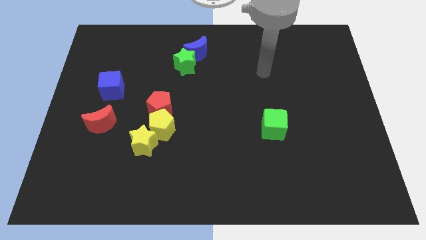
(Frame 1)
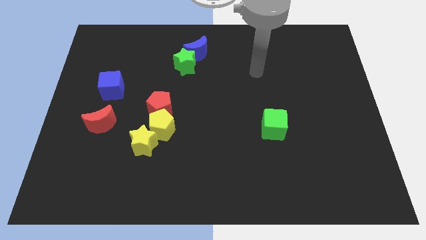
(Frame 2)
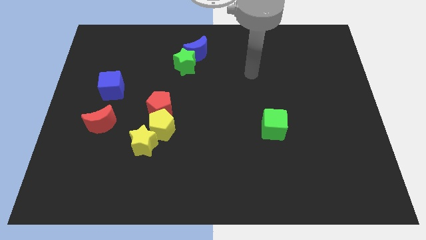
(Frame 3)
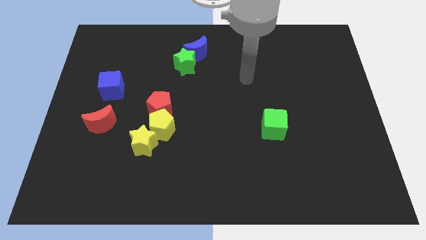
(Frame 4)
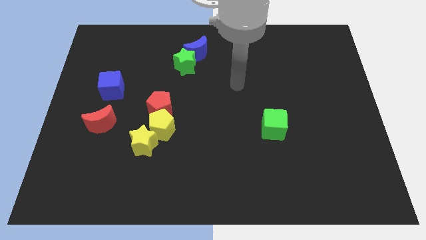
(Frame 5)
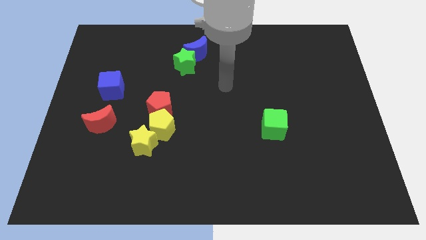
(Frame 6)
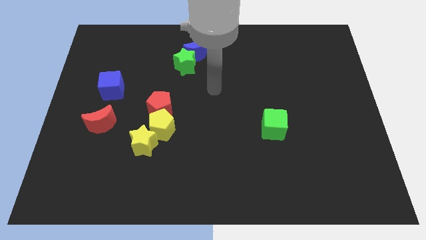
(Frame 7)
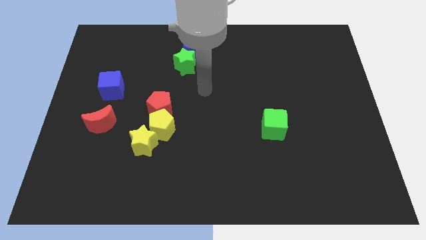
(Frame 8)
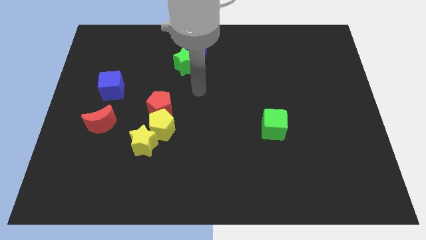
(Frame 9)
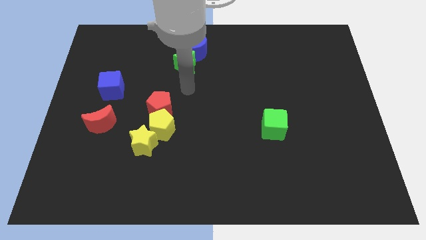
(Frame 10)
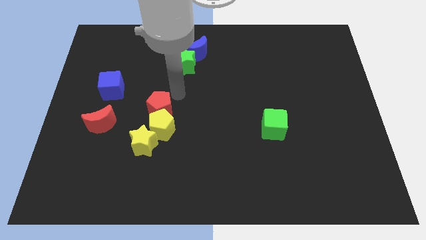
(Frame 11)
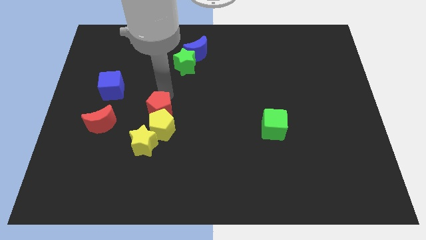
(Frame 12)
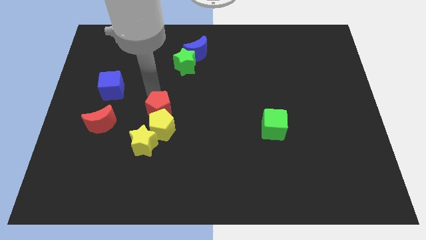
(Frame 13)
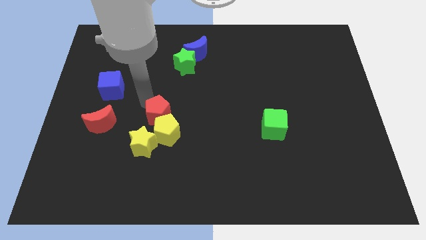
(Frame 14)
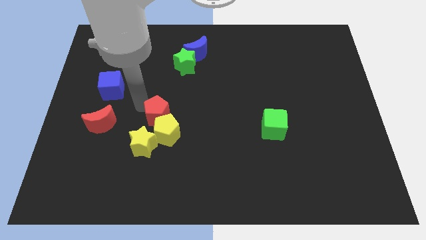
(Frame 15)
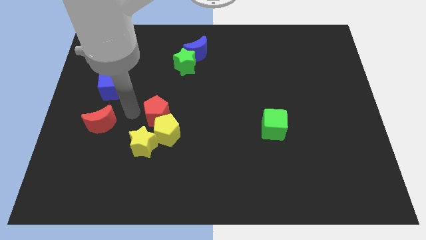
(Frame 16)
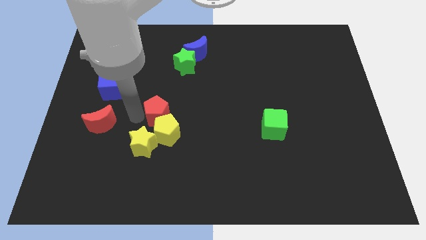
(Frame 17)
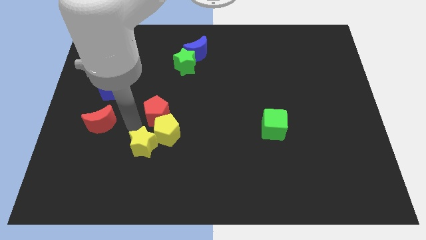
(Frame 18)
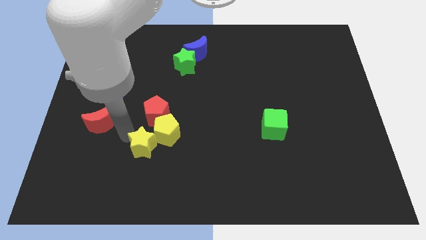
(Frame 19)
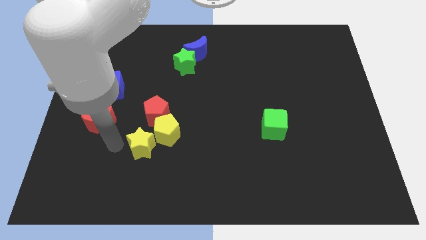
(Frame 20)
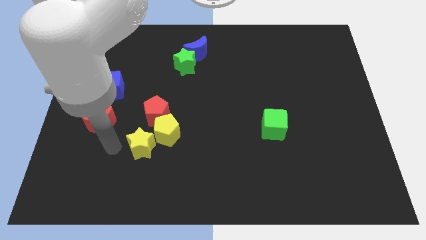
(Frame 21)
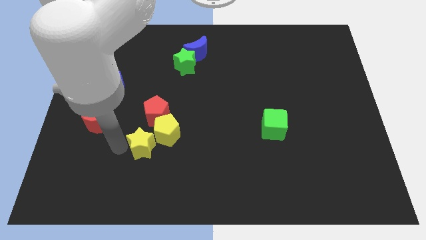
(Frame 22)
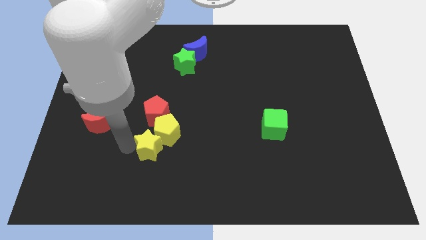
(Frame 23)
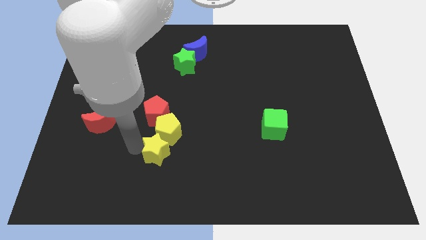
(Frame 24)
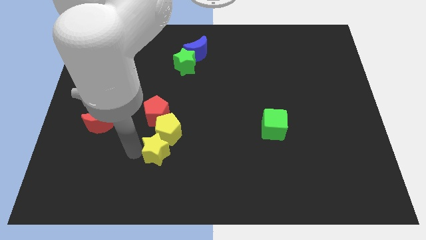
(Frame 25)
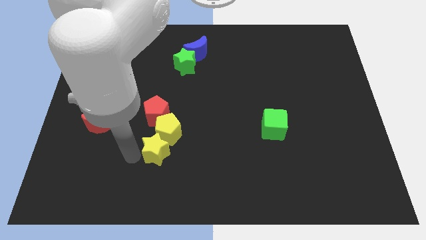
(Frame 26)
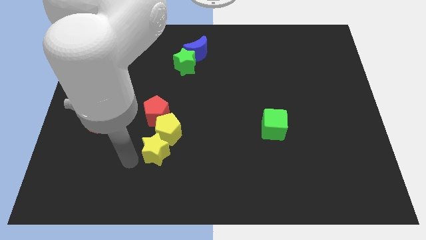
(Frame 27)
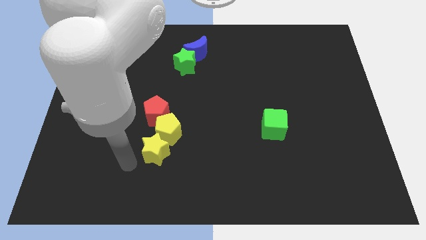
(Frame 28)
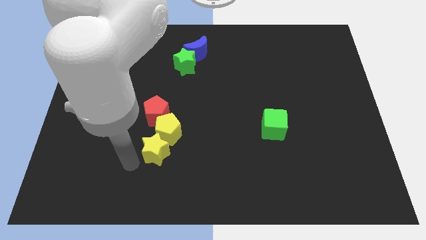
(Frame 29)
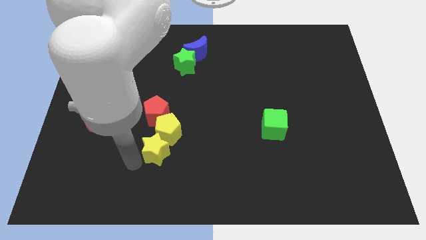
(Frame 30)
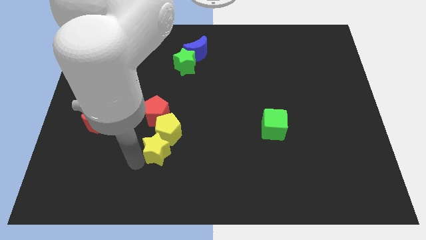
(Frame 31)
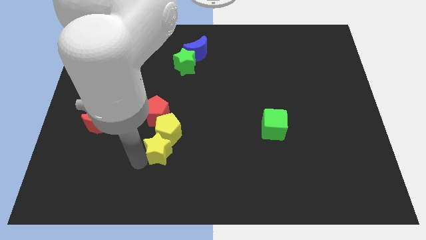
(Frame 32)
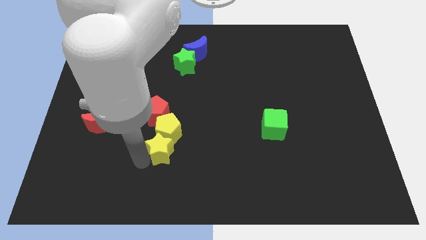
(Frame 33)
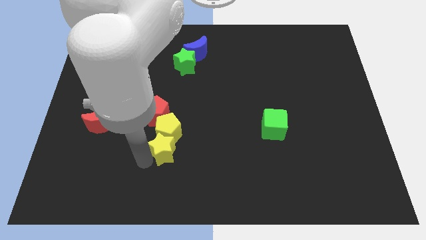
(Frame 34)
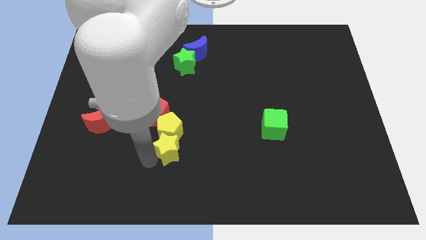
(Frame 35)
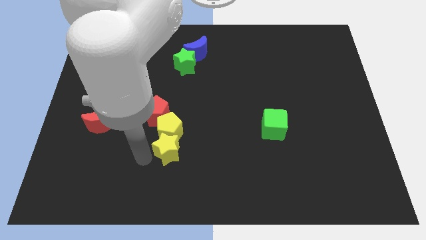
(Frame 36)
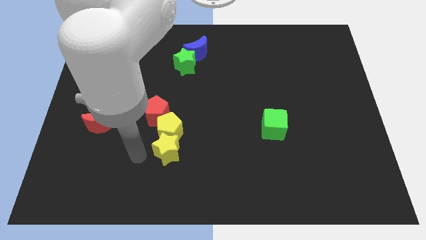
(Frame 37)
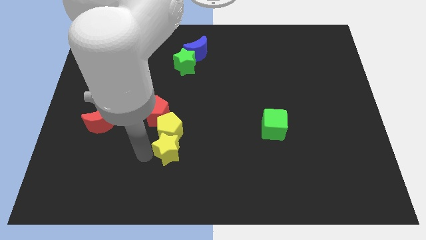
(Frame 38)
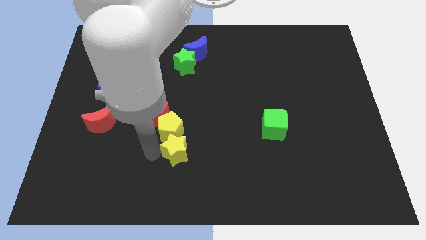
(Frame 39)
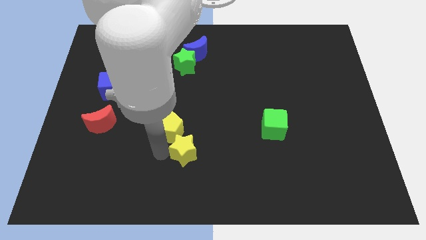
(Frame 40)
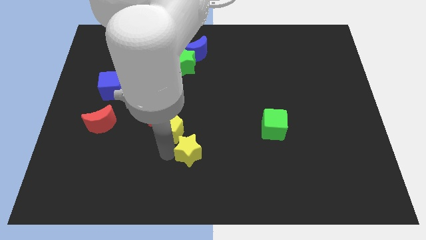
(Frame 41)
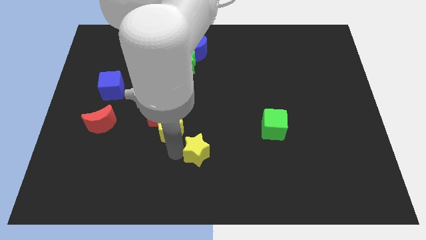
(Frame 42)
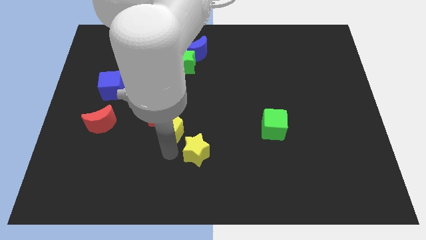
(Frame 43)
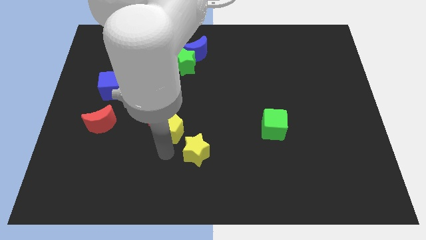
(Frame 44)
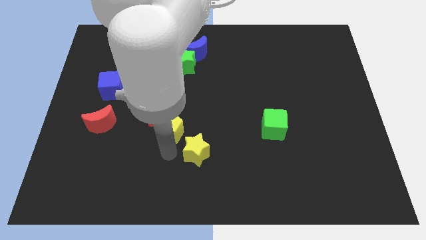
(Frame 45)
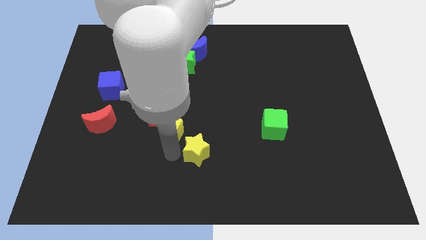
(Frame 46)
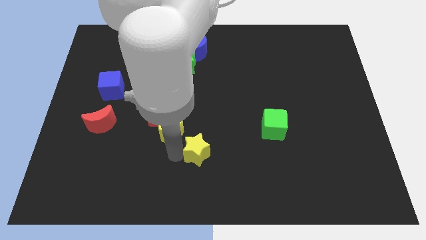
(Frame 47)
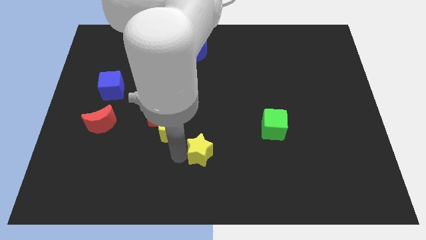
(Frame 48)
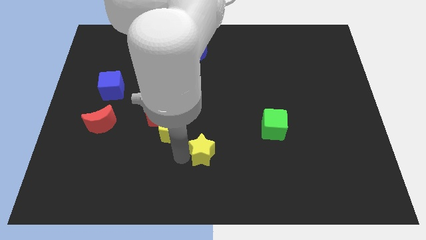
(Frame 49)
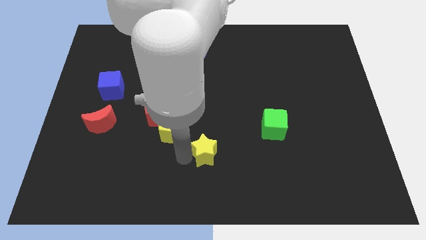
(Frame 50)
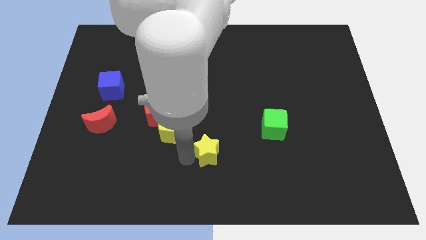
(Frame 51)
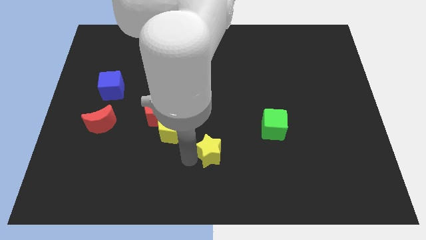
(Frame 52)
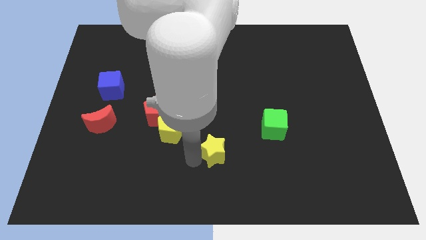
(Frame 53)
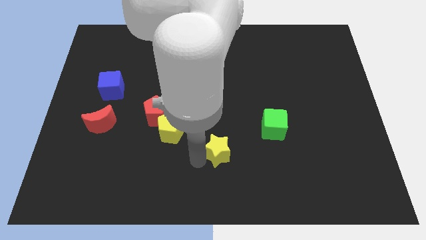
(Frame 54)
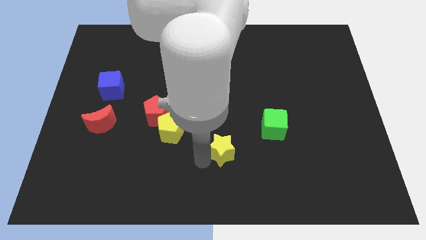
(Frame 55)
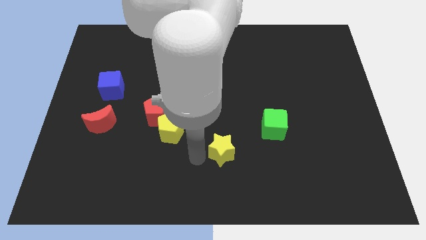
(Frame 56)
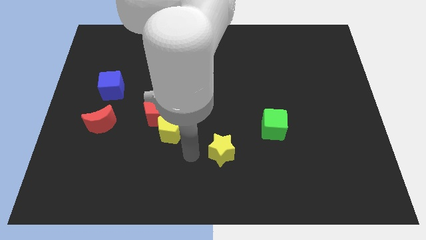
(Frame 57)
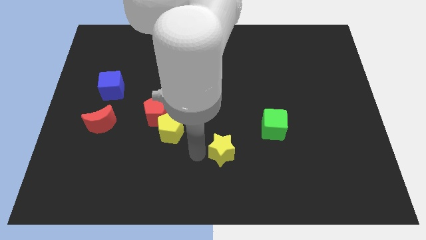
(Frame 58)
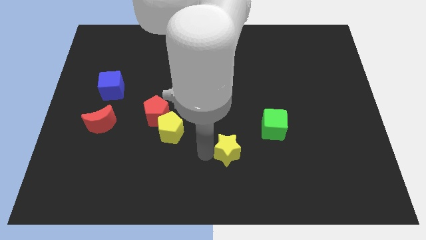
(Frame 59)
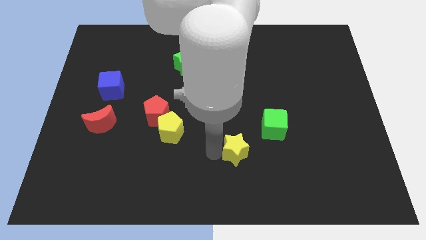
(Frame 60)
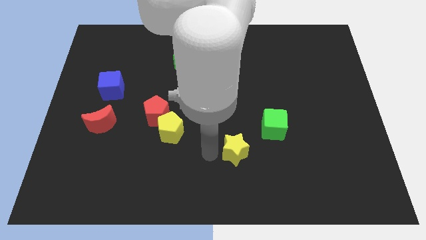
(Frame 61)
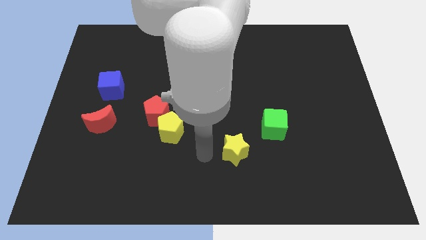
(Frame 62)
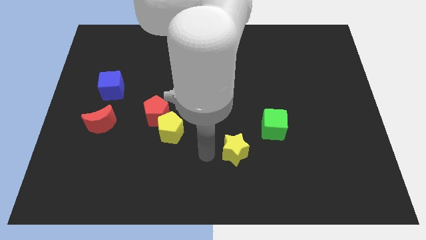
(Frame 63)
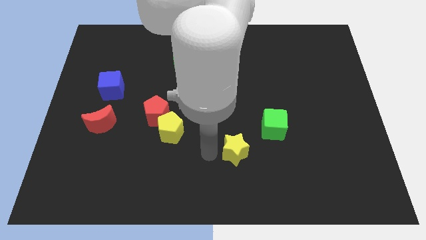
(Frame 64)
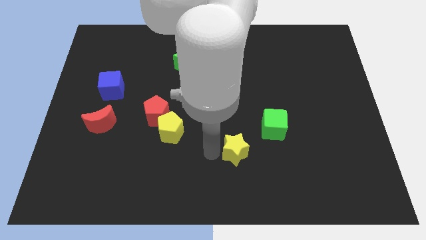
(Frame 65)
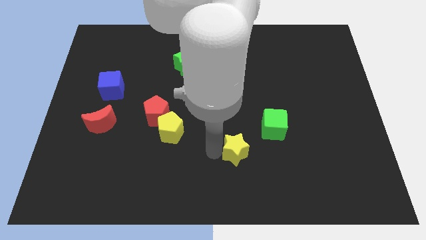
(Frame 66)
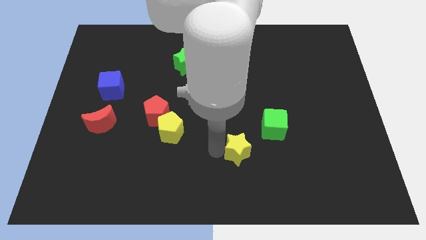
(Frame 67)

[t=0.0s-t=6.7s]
slide the yellow star to the right

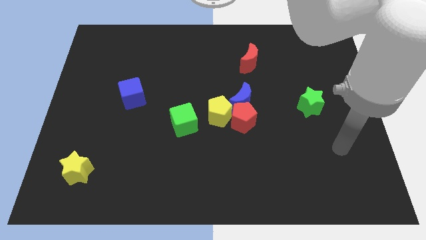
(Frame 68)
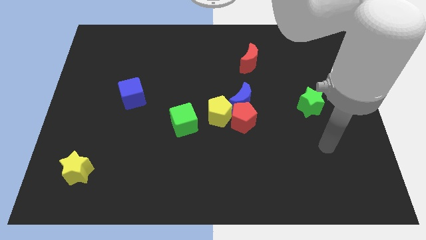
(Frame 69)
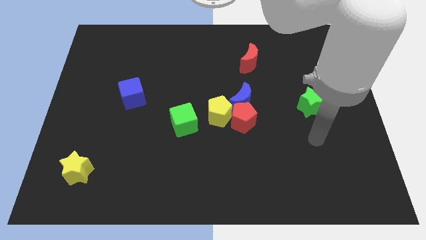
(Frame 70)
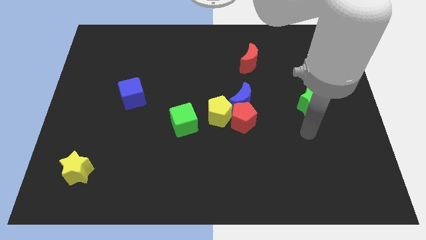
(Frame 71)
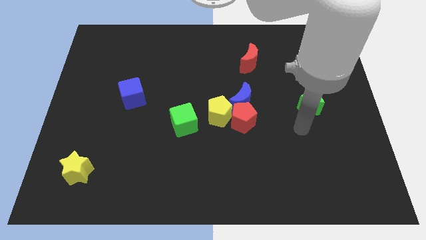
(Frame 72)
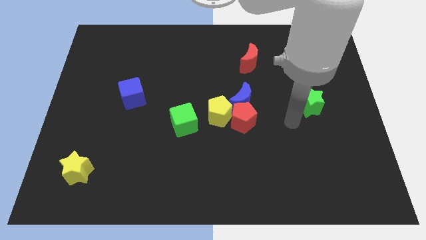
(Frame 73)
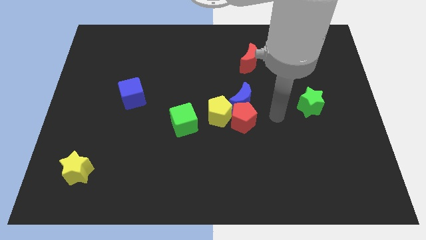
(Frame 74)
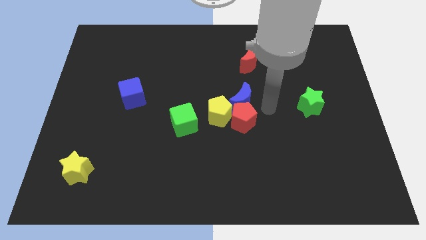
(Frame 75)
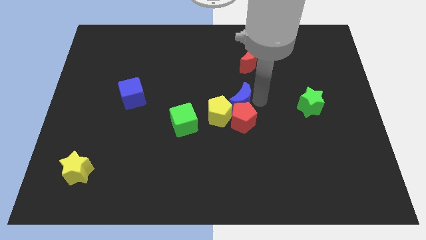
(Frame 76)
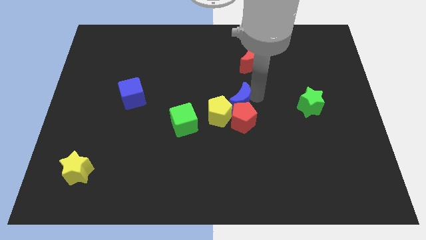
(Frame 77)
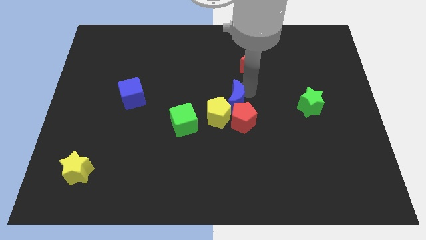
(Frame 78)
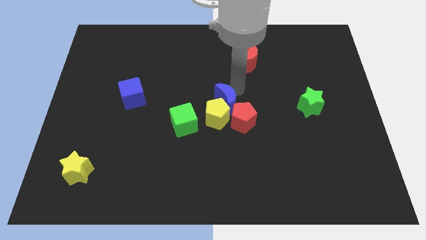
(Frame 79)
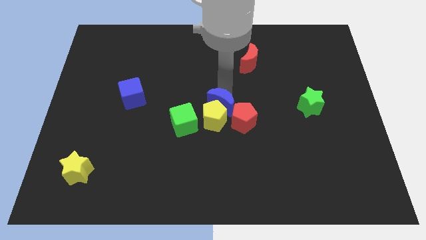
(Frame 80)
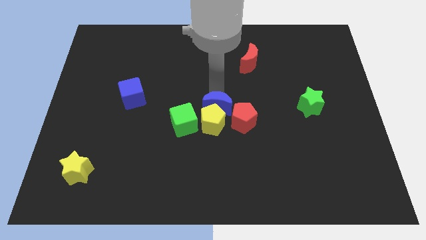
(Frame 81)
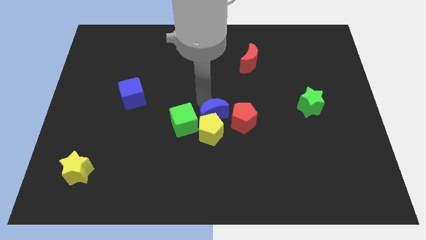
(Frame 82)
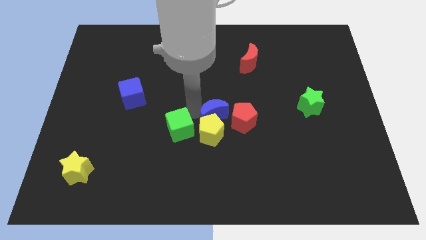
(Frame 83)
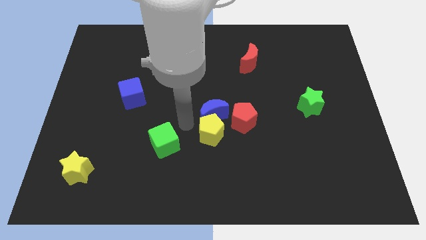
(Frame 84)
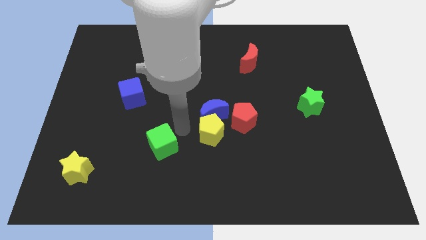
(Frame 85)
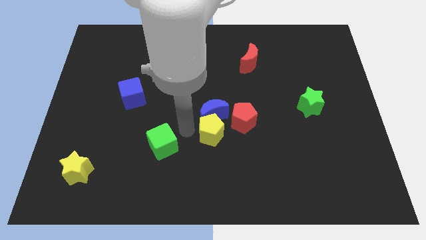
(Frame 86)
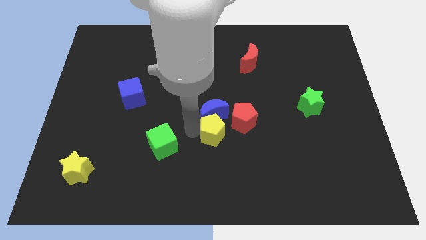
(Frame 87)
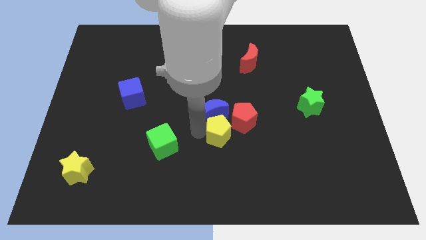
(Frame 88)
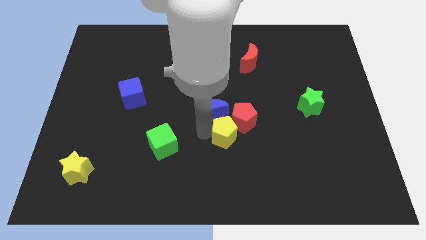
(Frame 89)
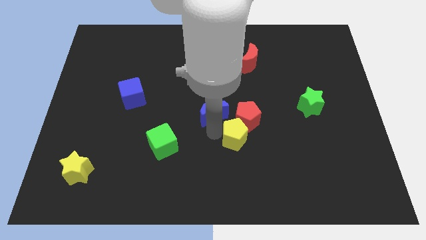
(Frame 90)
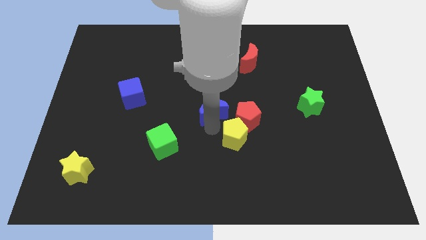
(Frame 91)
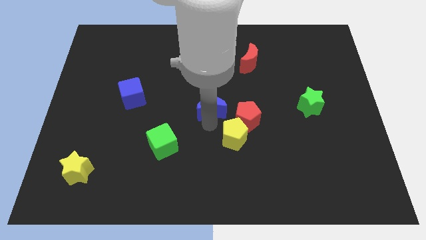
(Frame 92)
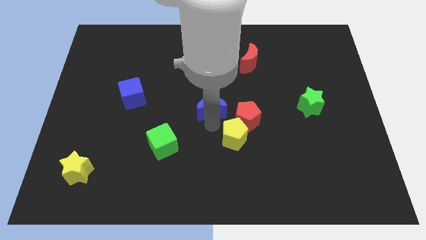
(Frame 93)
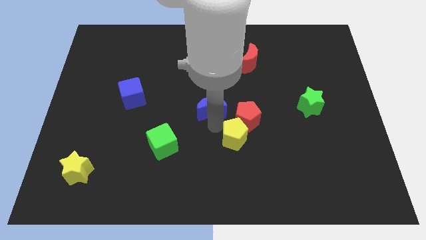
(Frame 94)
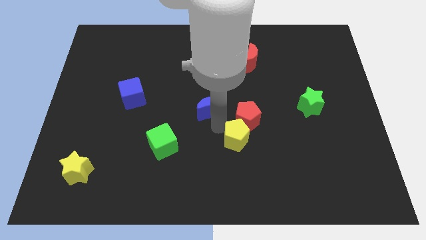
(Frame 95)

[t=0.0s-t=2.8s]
slide the yellow pentagon a little diagonally downwards and to the right
